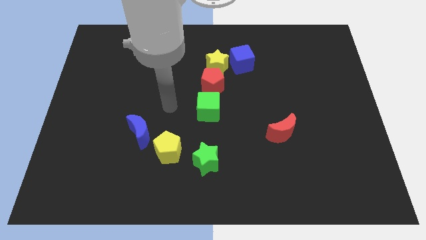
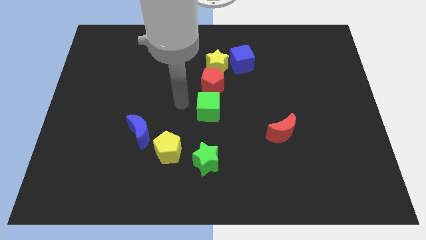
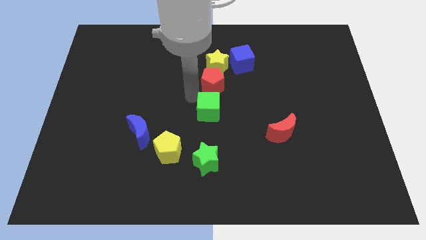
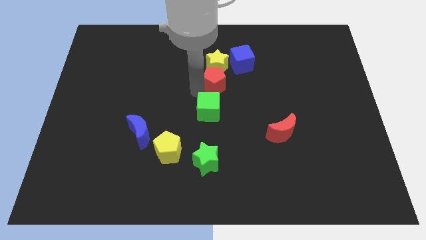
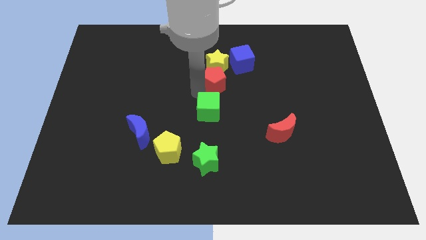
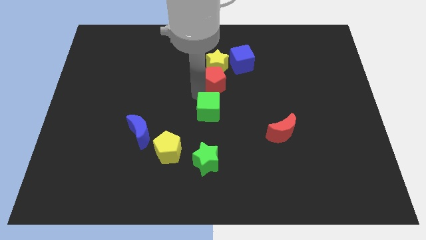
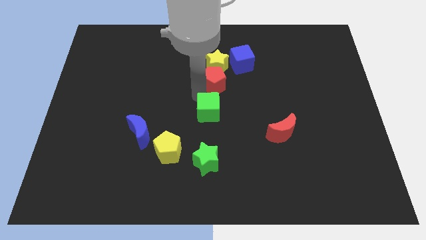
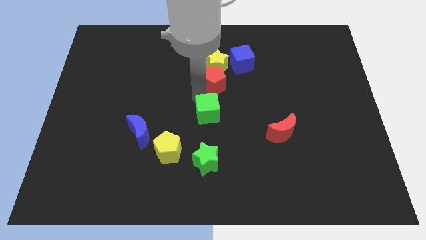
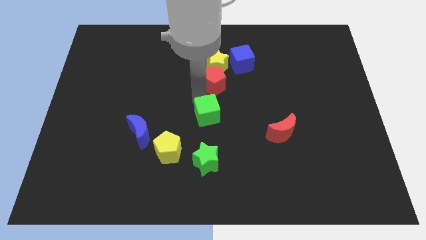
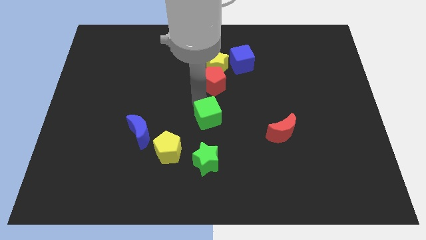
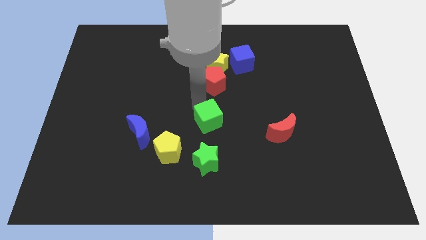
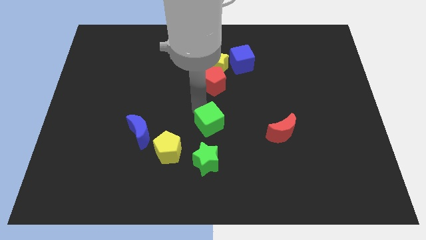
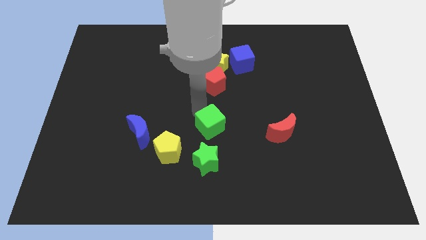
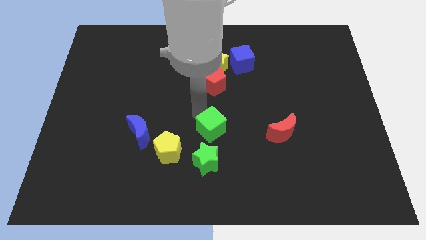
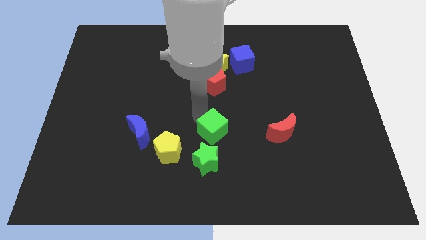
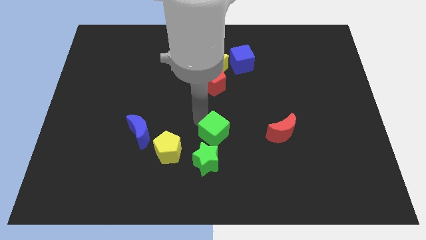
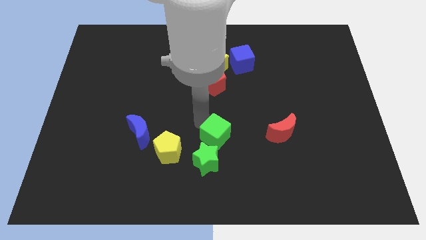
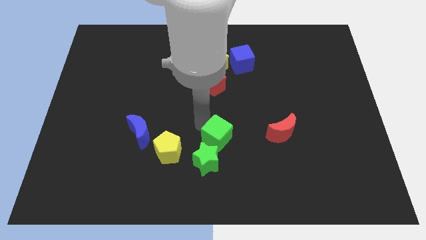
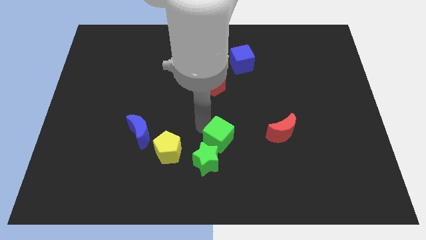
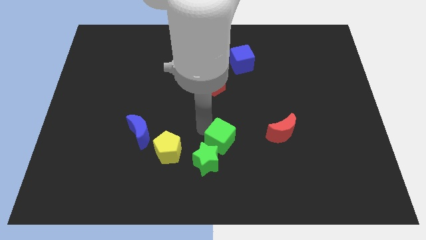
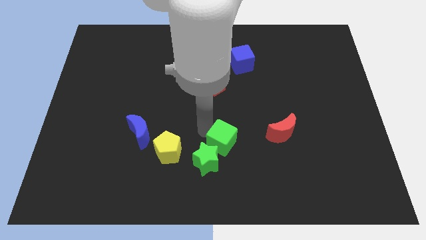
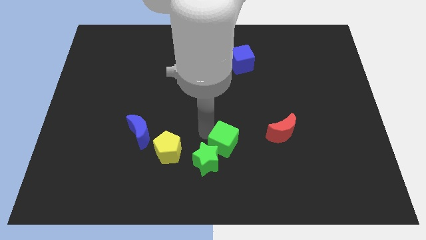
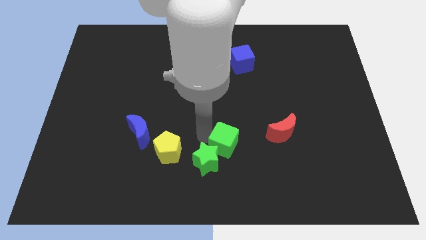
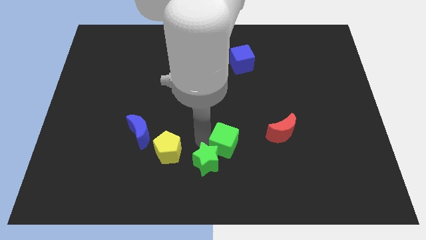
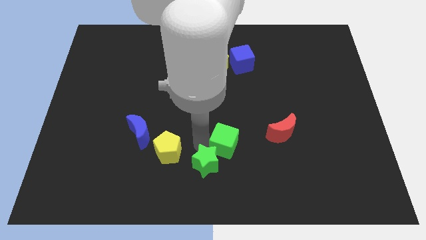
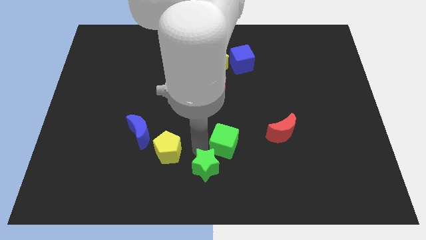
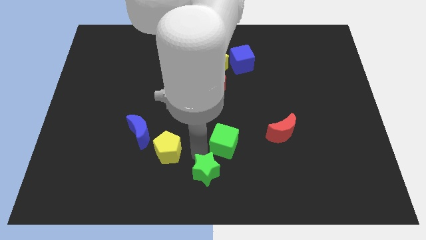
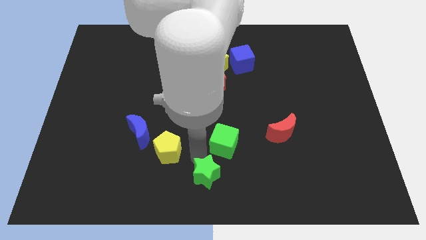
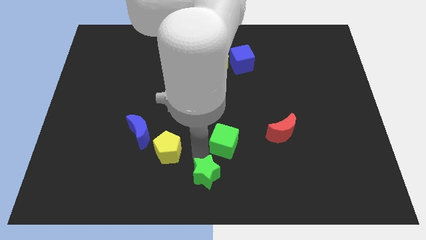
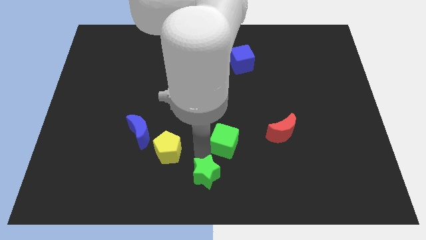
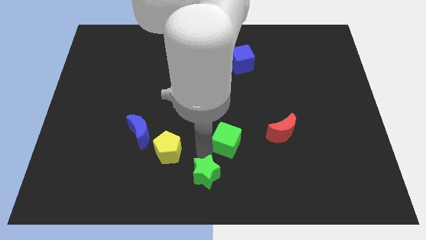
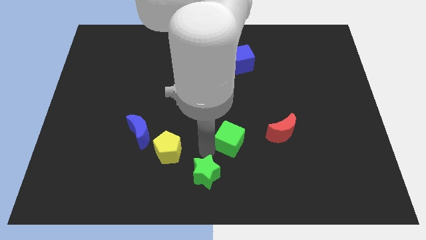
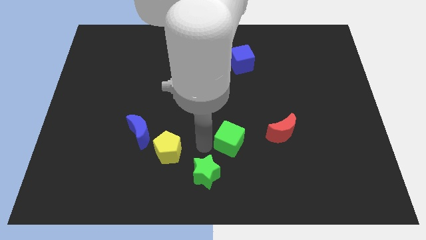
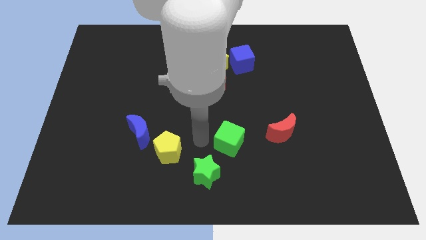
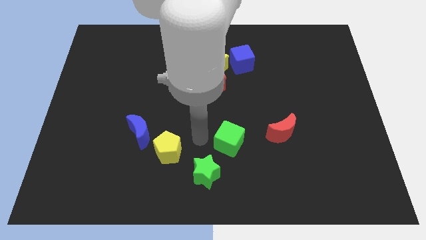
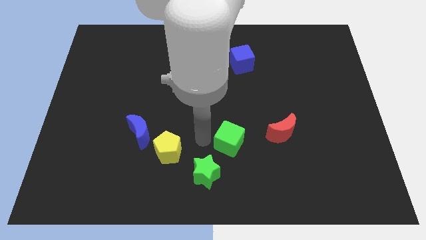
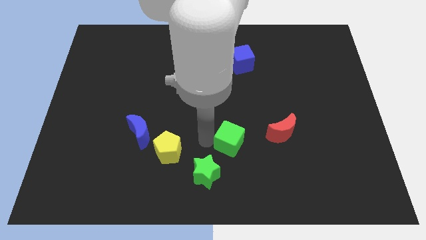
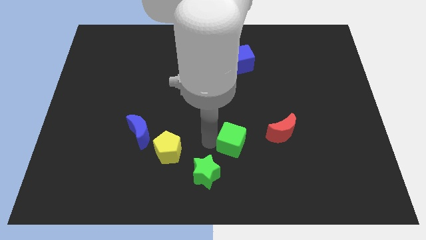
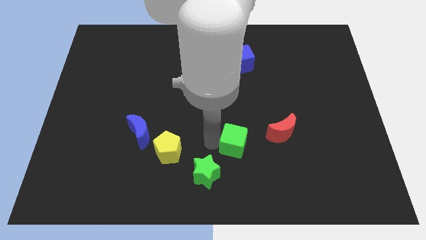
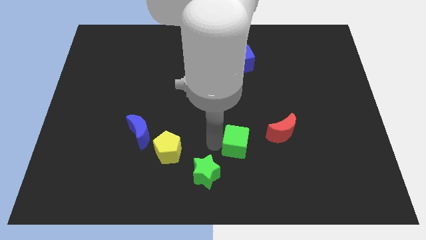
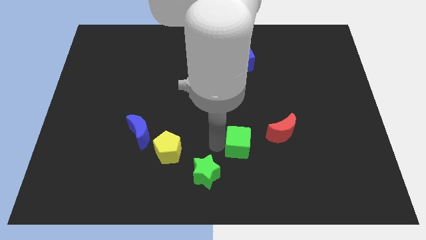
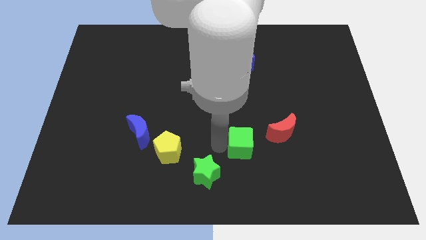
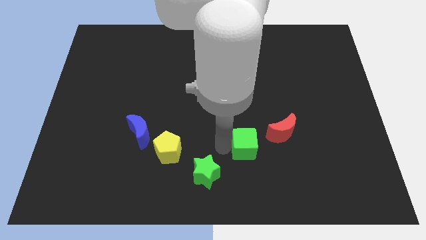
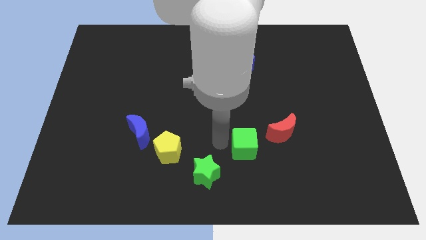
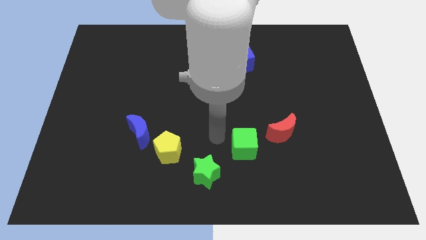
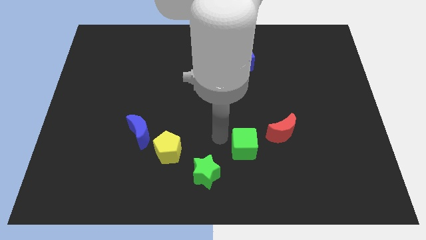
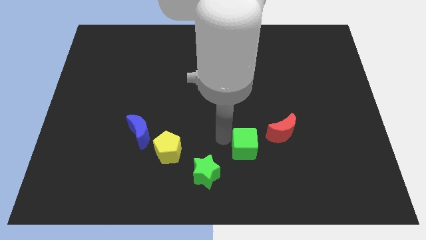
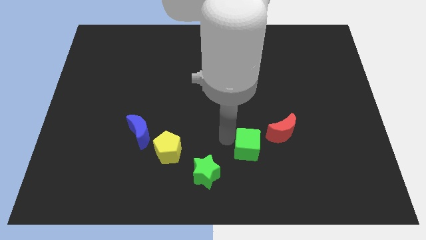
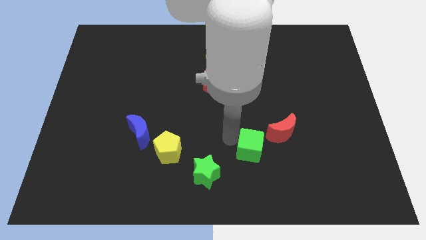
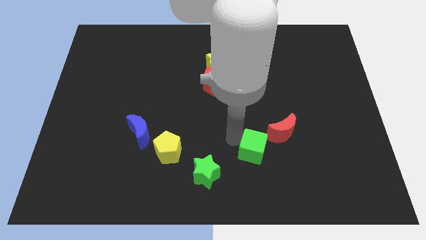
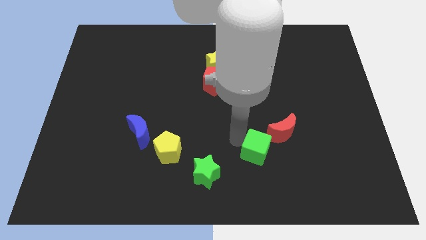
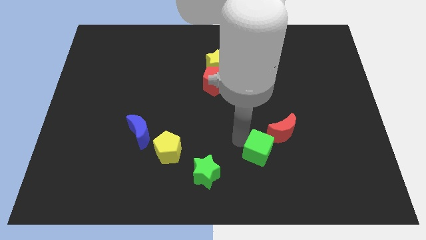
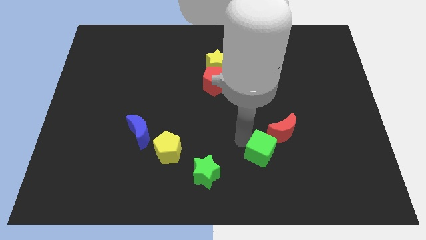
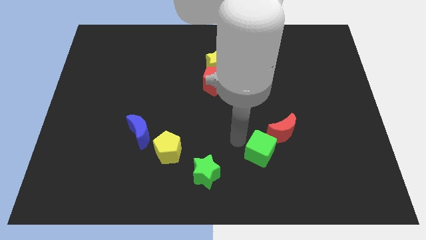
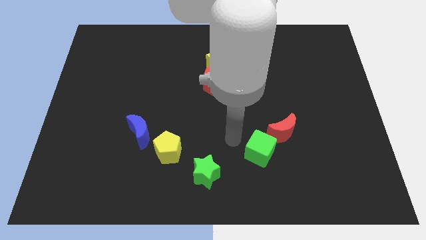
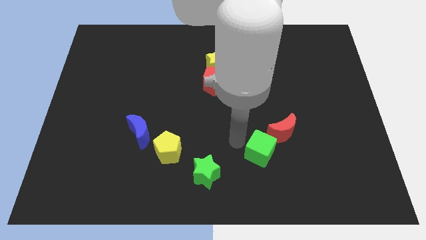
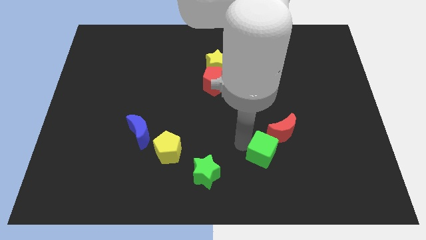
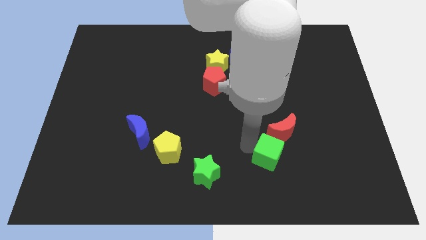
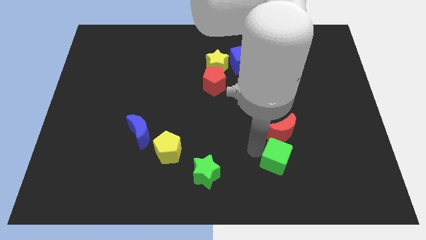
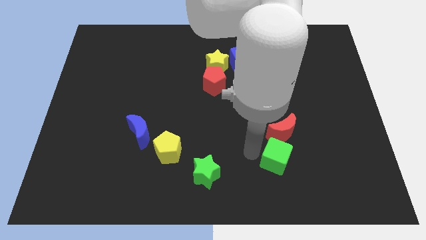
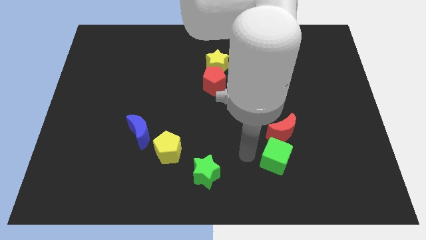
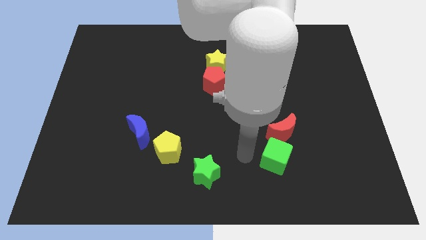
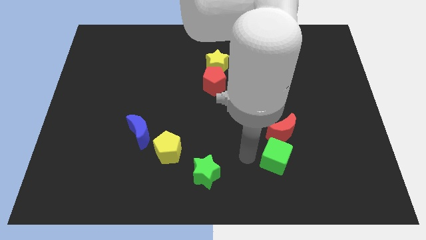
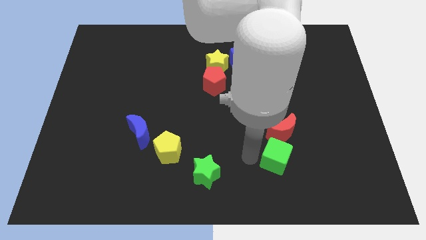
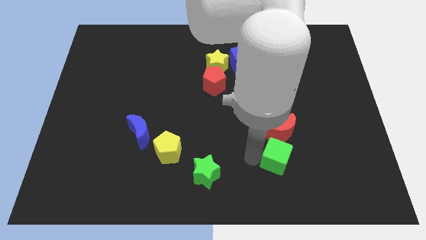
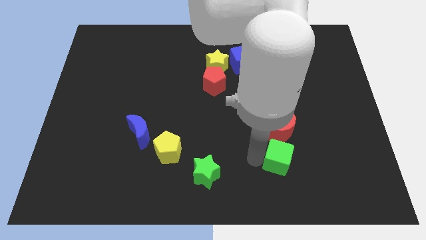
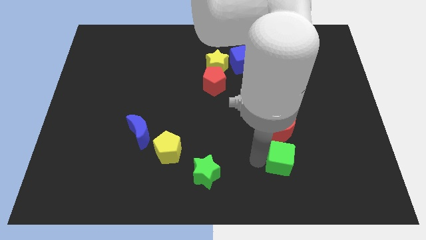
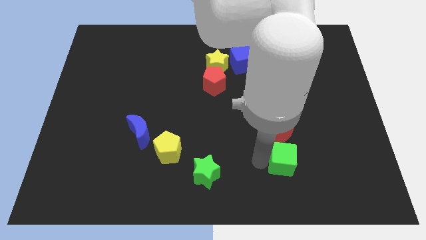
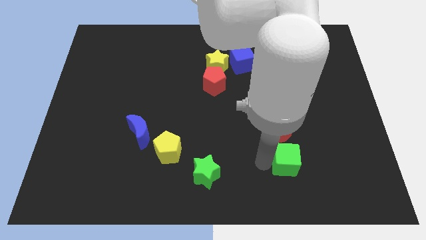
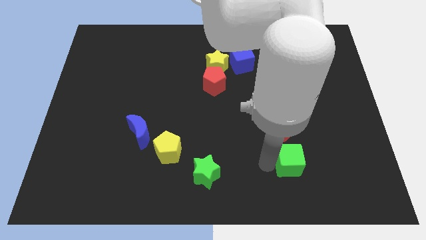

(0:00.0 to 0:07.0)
slide the green cube to the bottom right side of the red moon
